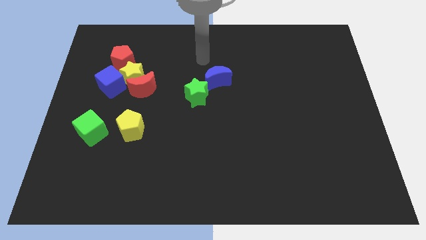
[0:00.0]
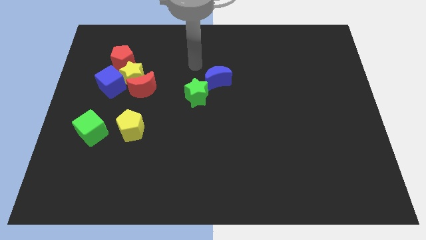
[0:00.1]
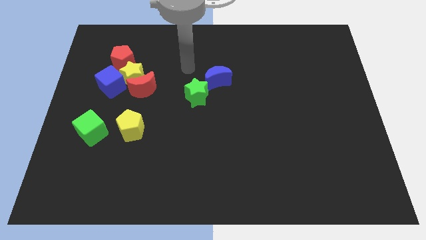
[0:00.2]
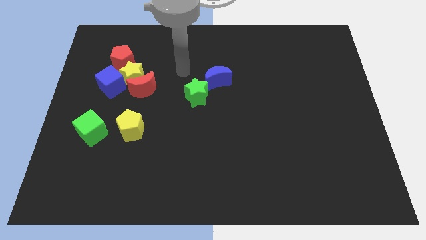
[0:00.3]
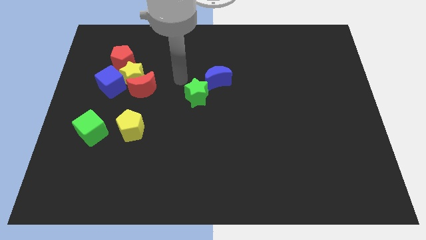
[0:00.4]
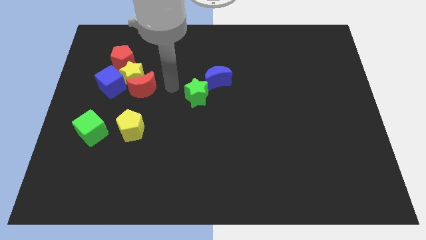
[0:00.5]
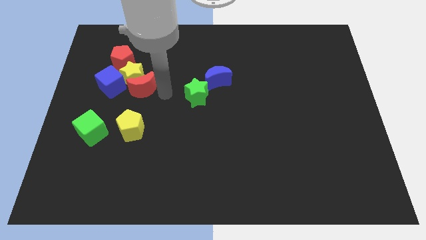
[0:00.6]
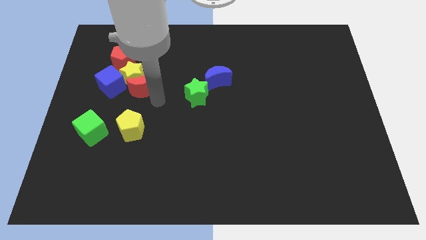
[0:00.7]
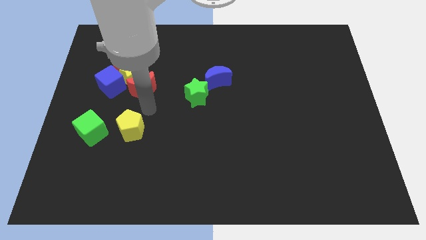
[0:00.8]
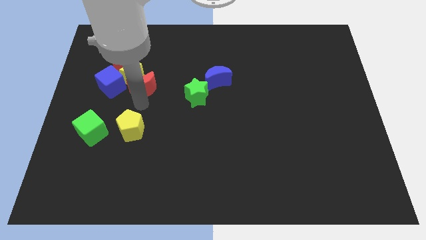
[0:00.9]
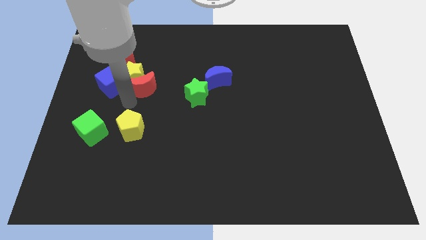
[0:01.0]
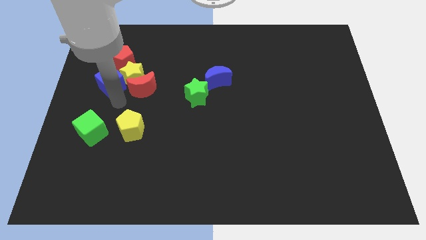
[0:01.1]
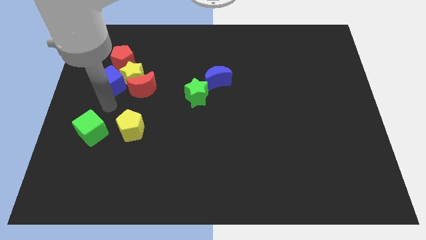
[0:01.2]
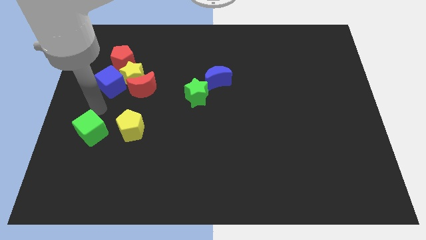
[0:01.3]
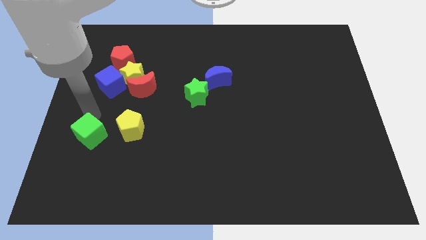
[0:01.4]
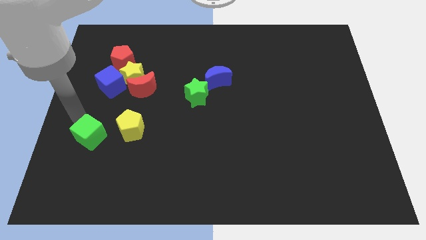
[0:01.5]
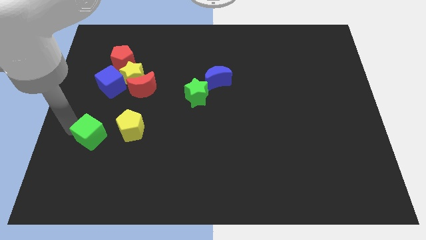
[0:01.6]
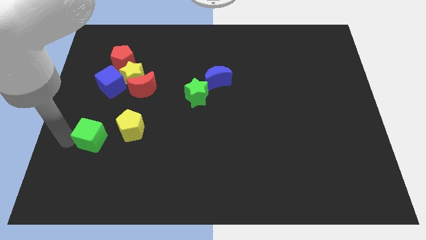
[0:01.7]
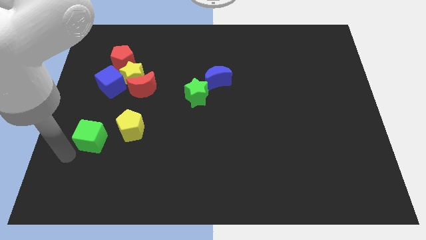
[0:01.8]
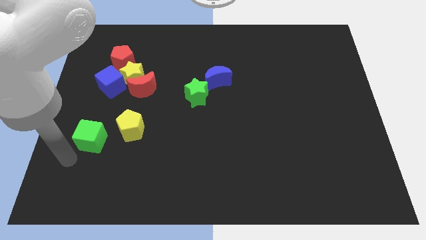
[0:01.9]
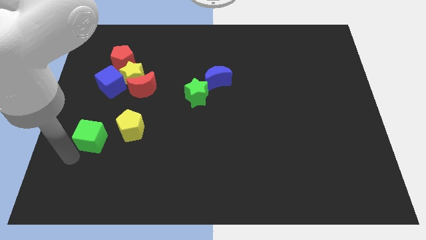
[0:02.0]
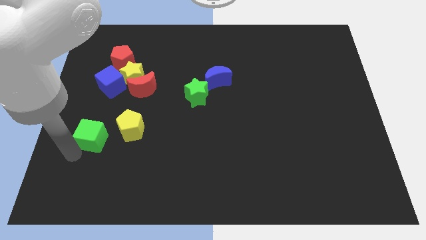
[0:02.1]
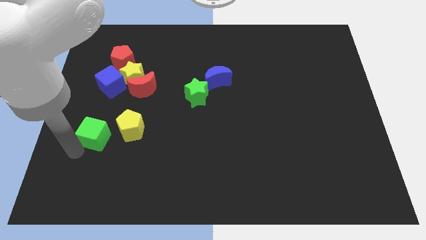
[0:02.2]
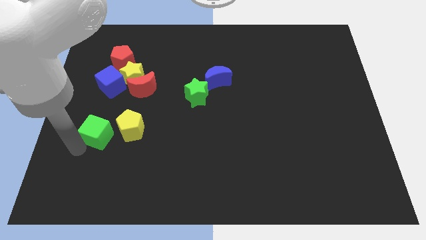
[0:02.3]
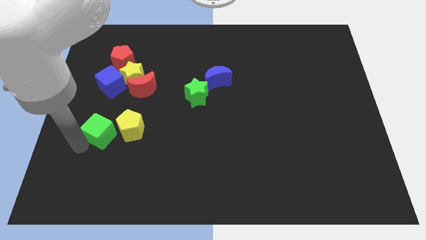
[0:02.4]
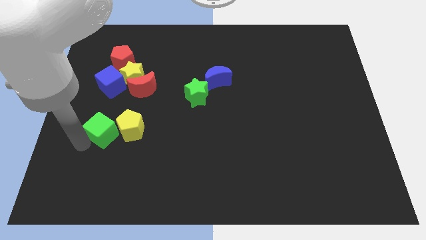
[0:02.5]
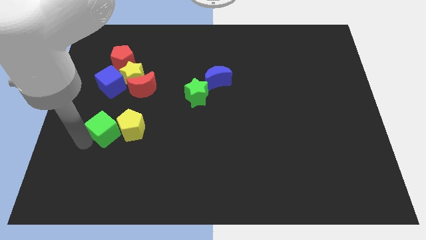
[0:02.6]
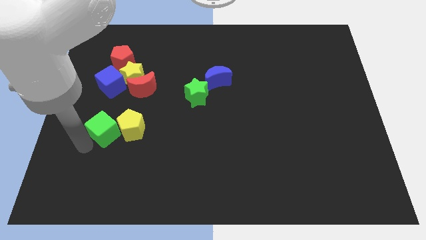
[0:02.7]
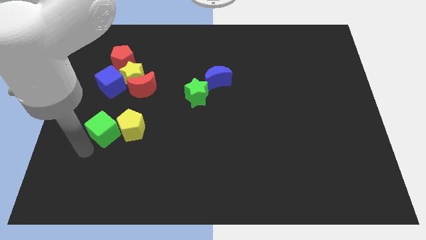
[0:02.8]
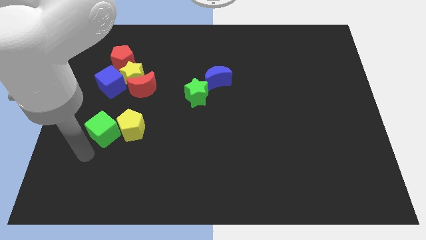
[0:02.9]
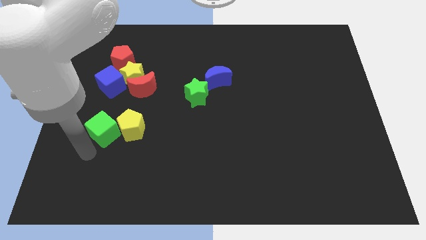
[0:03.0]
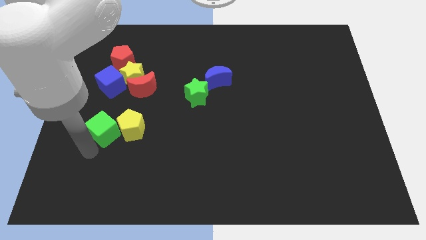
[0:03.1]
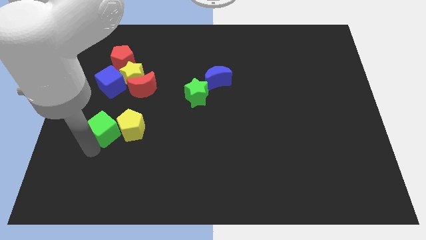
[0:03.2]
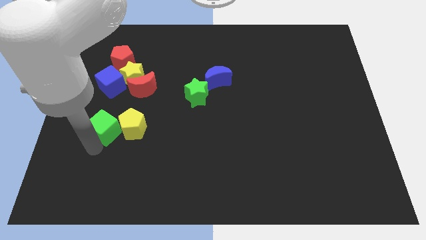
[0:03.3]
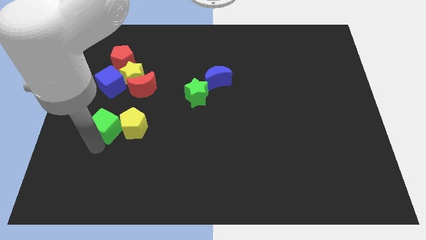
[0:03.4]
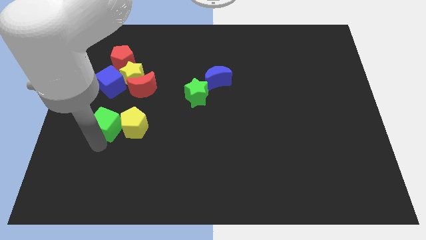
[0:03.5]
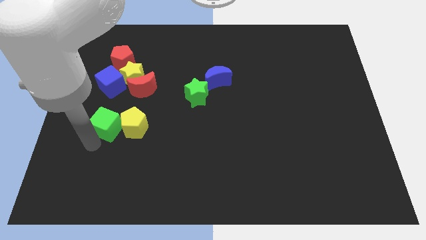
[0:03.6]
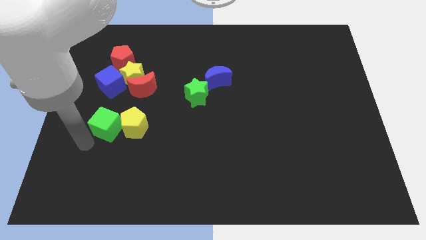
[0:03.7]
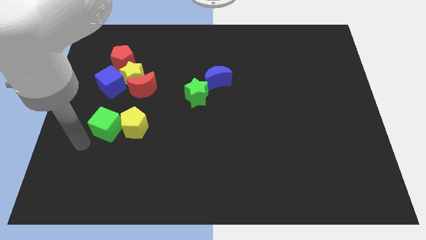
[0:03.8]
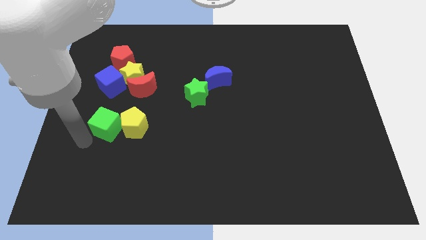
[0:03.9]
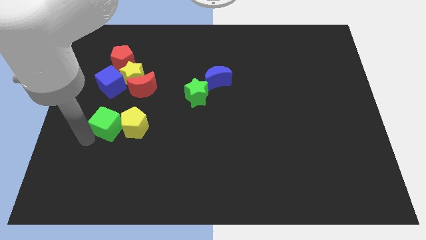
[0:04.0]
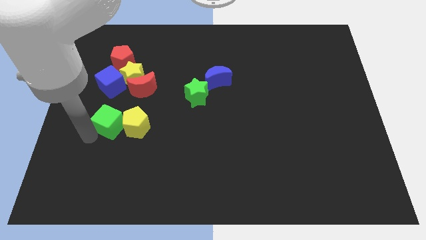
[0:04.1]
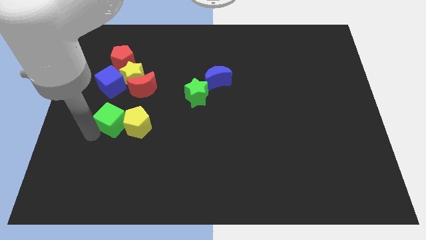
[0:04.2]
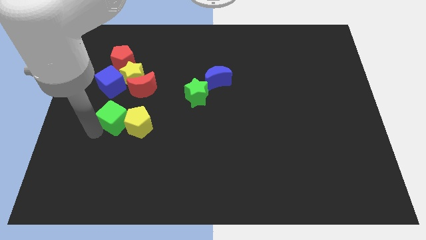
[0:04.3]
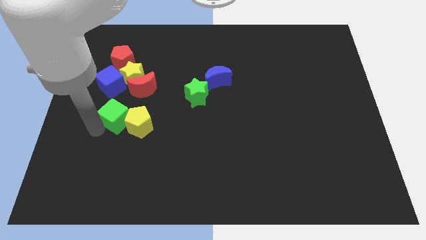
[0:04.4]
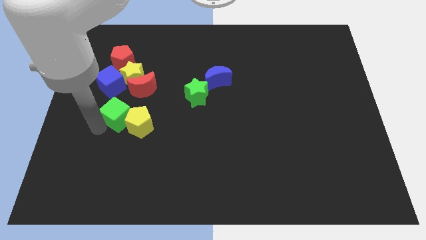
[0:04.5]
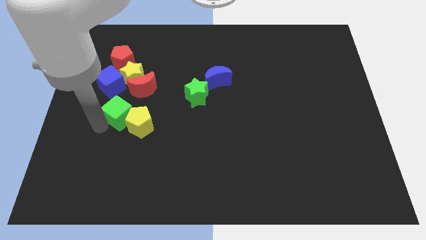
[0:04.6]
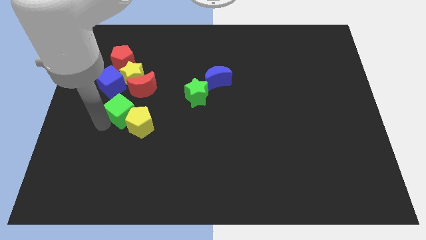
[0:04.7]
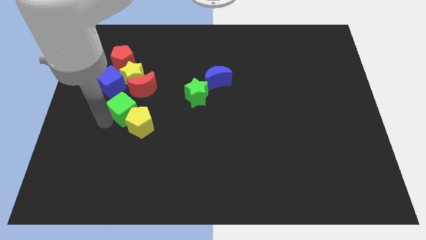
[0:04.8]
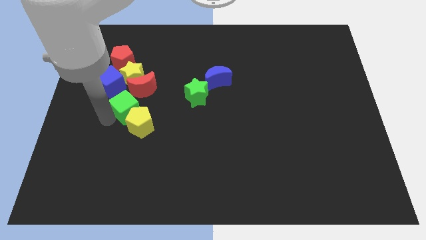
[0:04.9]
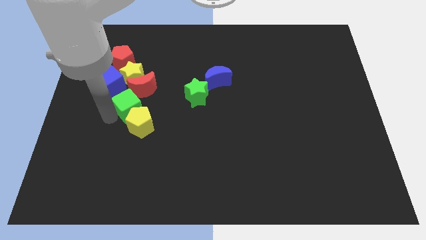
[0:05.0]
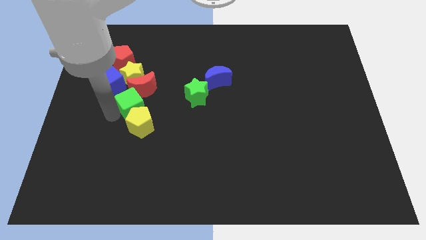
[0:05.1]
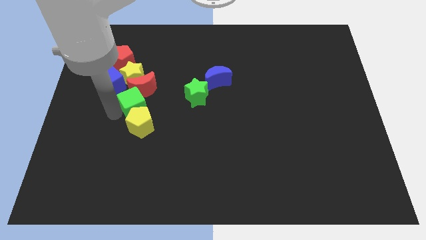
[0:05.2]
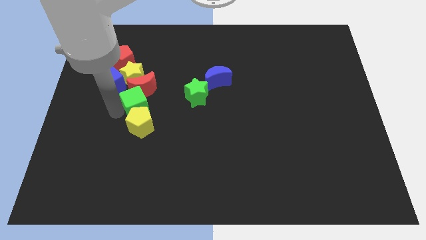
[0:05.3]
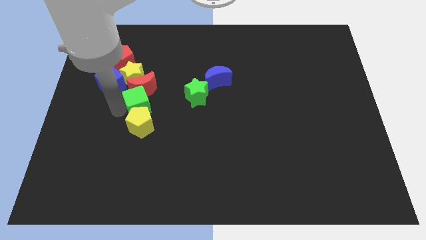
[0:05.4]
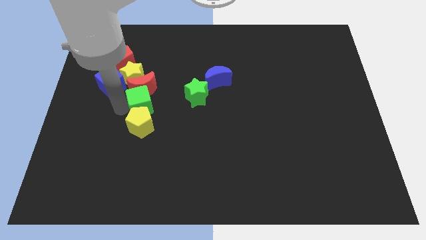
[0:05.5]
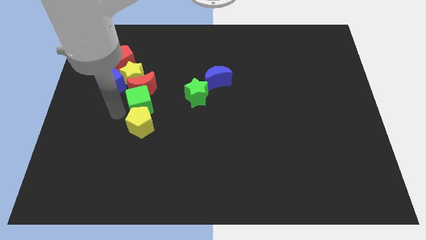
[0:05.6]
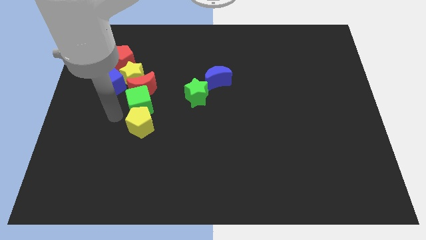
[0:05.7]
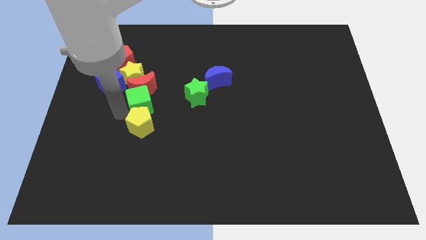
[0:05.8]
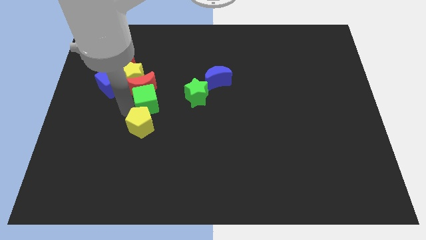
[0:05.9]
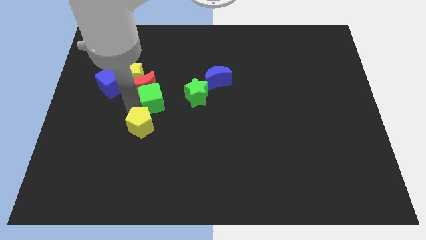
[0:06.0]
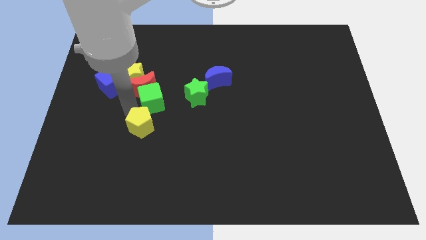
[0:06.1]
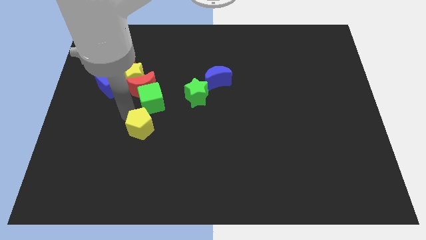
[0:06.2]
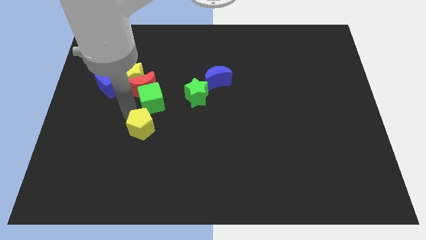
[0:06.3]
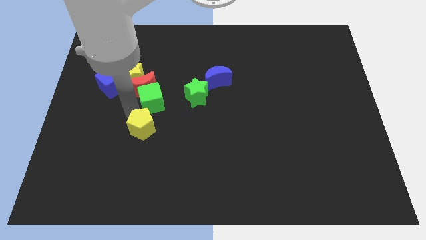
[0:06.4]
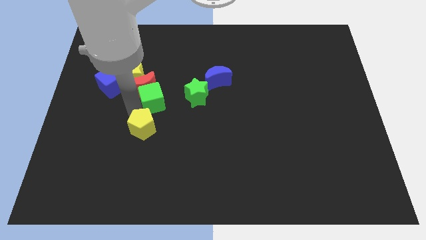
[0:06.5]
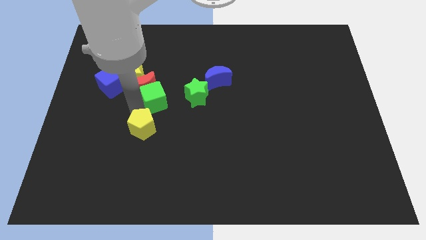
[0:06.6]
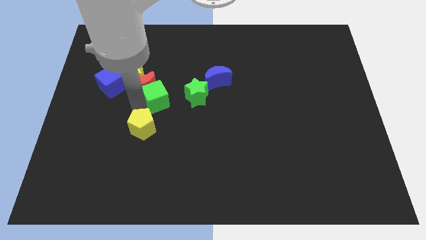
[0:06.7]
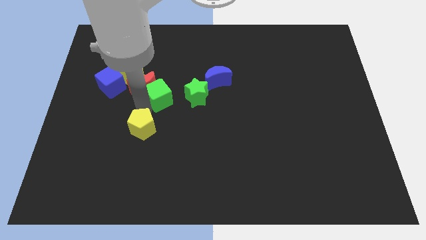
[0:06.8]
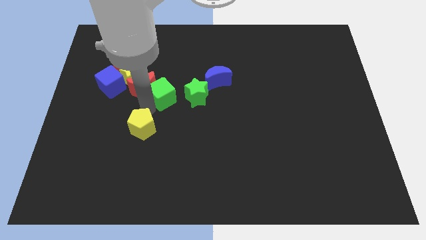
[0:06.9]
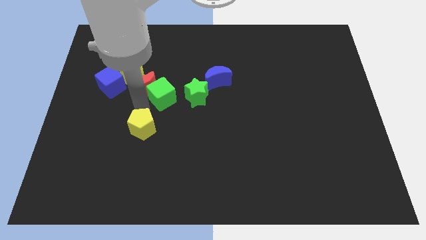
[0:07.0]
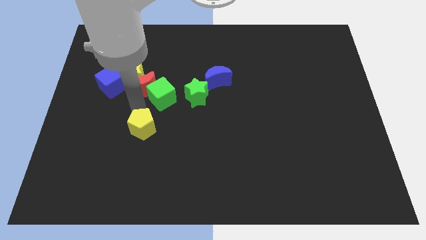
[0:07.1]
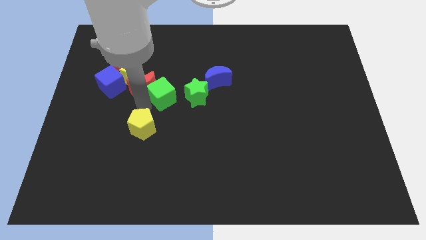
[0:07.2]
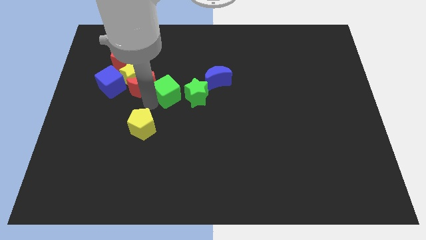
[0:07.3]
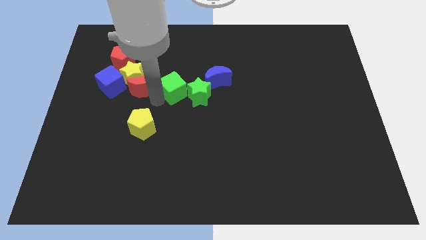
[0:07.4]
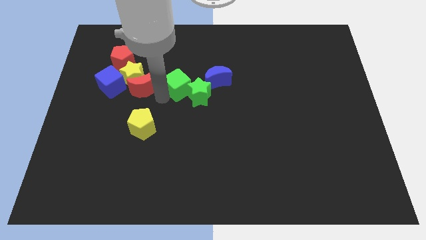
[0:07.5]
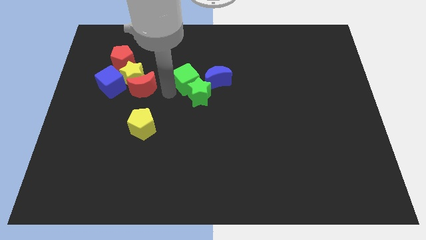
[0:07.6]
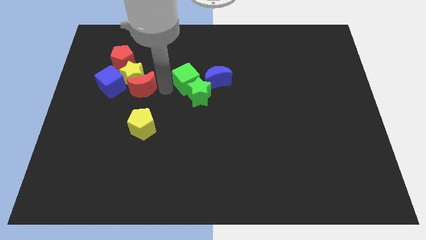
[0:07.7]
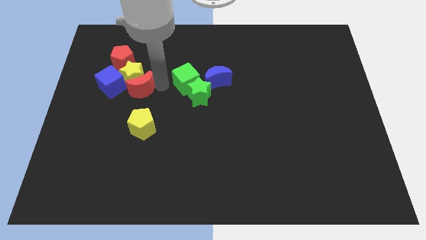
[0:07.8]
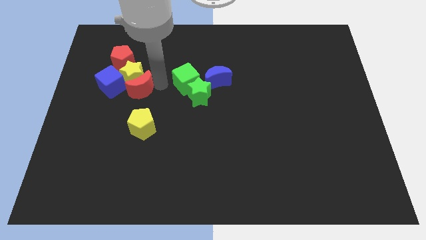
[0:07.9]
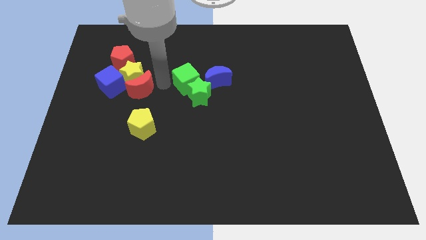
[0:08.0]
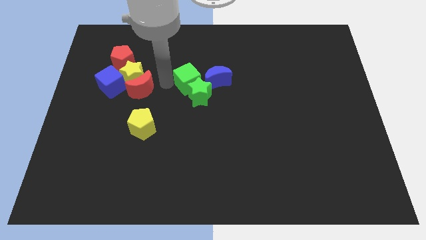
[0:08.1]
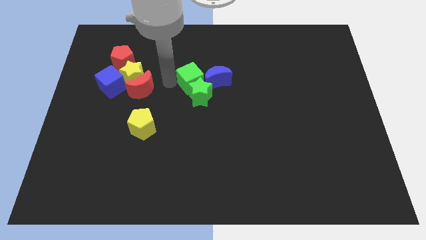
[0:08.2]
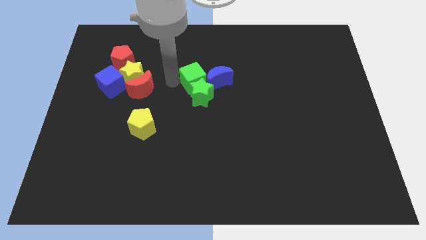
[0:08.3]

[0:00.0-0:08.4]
move the green cube towards the blue moon
